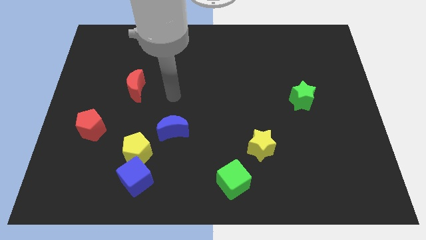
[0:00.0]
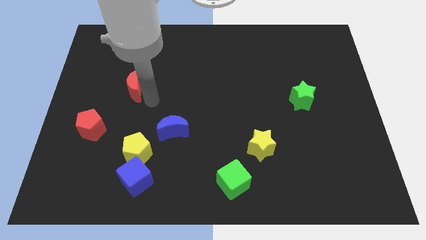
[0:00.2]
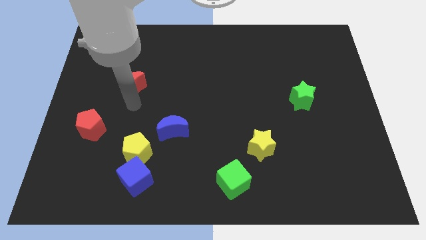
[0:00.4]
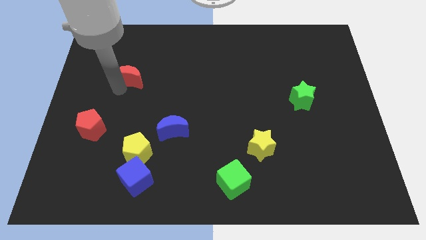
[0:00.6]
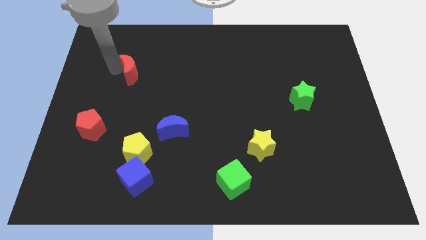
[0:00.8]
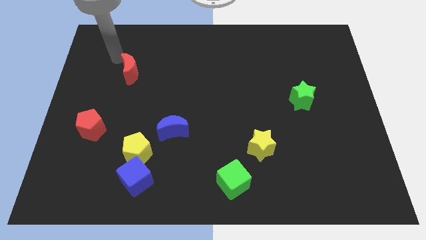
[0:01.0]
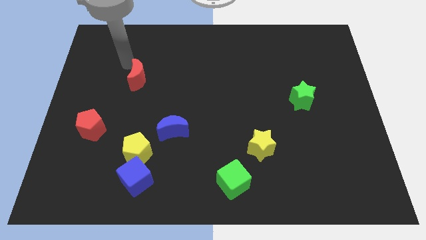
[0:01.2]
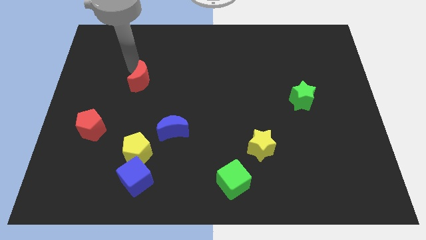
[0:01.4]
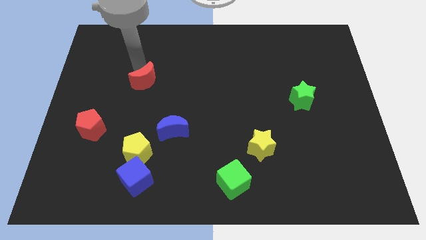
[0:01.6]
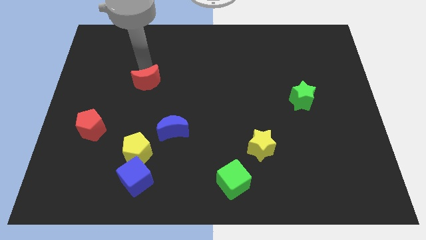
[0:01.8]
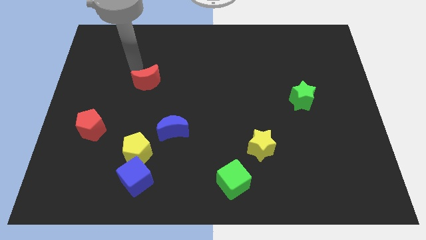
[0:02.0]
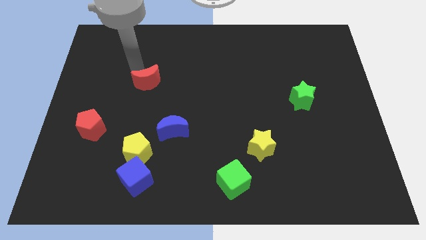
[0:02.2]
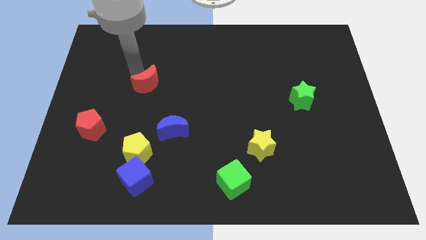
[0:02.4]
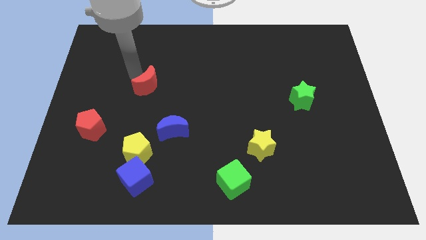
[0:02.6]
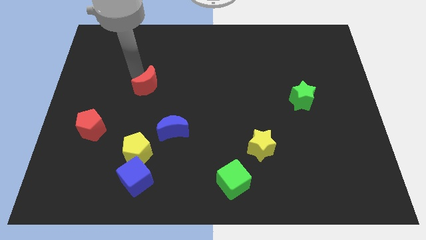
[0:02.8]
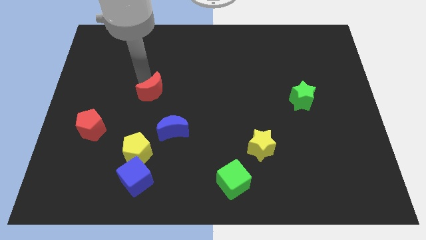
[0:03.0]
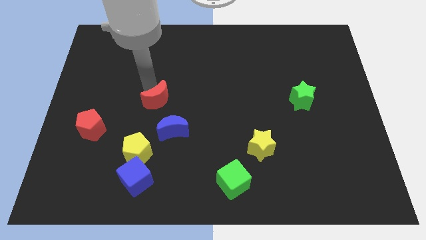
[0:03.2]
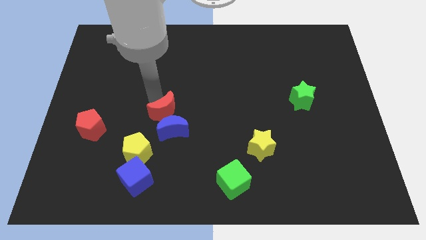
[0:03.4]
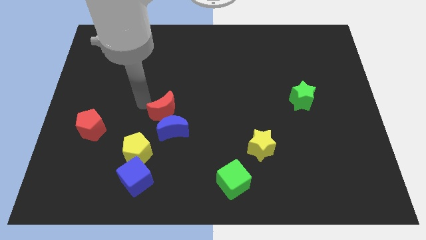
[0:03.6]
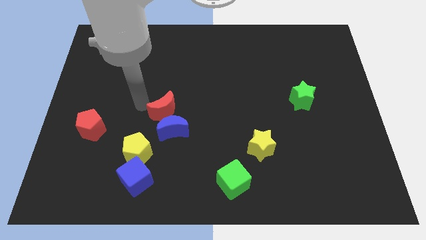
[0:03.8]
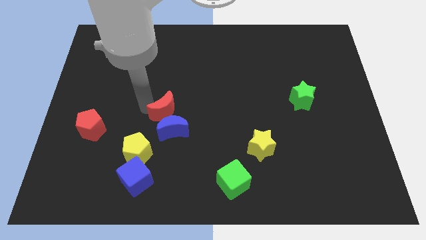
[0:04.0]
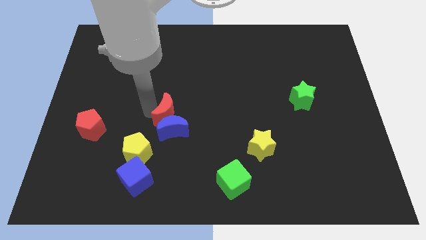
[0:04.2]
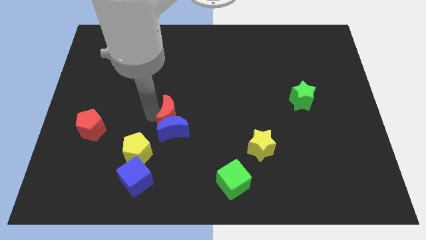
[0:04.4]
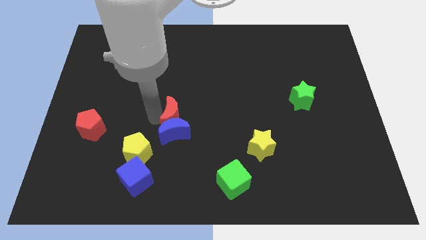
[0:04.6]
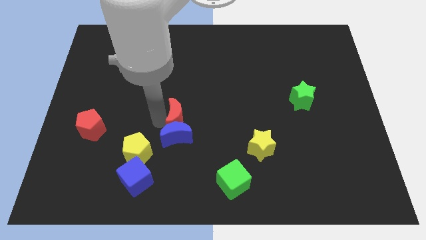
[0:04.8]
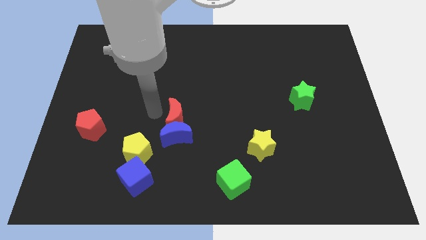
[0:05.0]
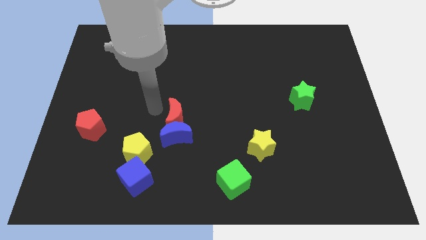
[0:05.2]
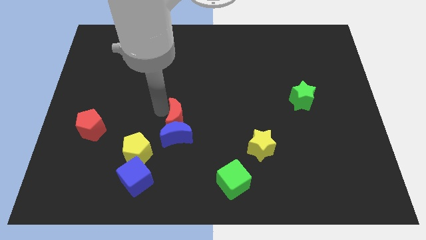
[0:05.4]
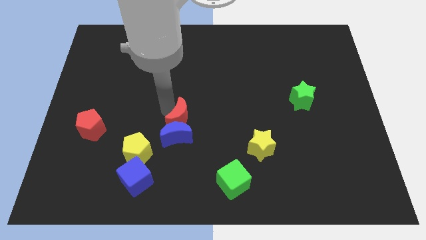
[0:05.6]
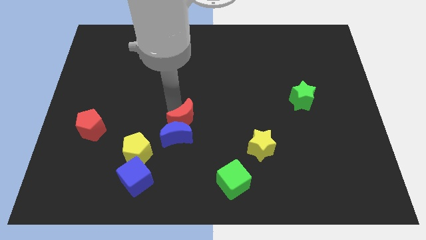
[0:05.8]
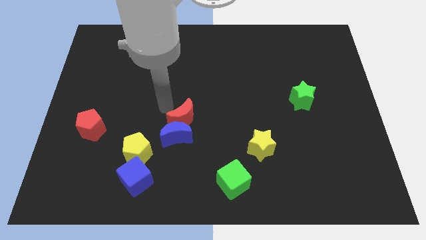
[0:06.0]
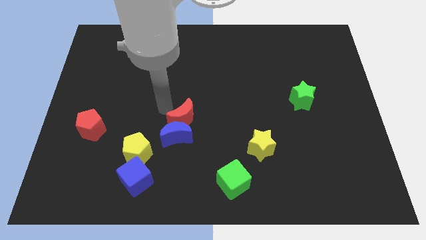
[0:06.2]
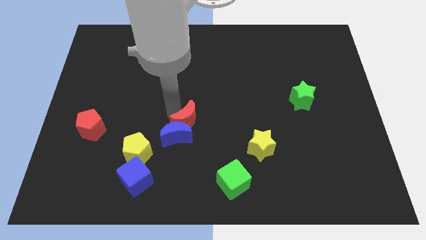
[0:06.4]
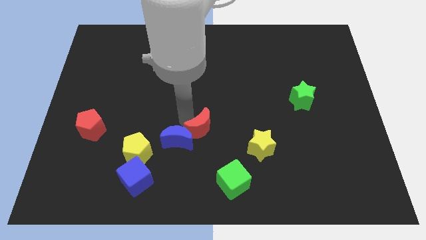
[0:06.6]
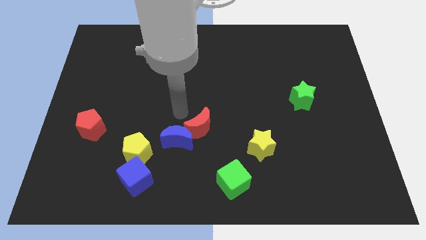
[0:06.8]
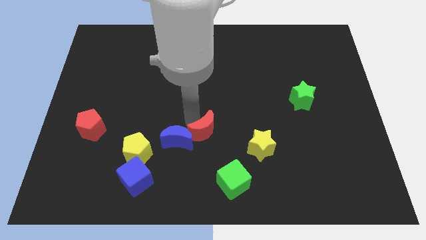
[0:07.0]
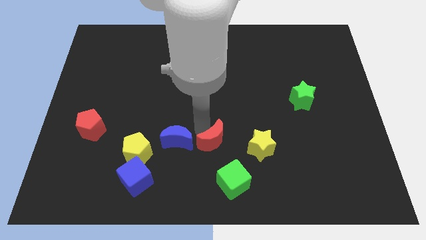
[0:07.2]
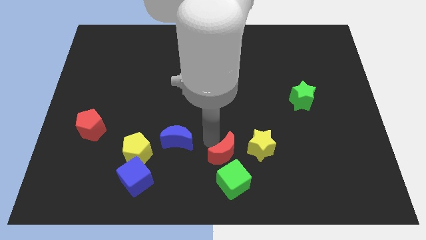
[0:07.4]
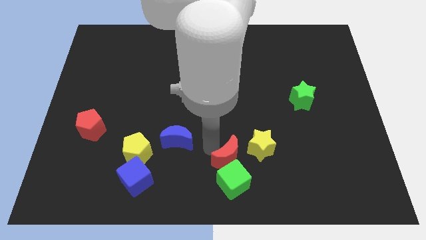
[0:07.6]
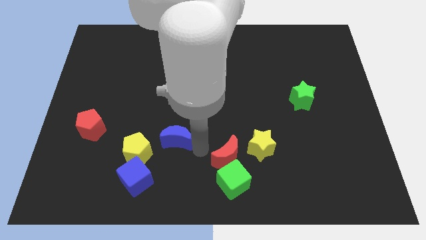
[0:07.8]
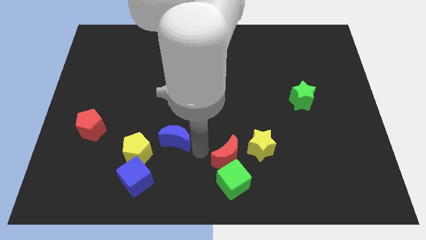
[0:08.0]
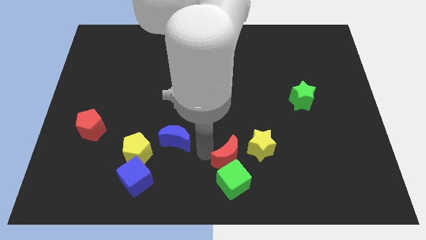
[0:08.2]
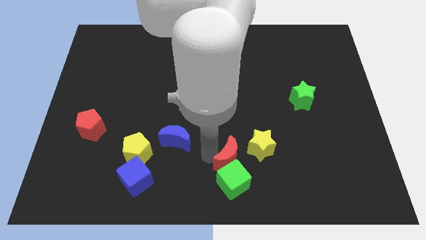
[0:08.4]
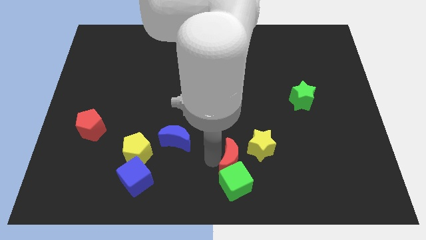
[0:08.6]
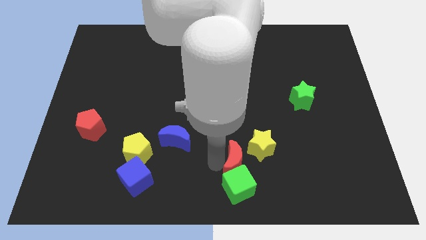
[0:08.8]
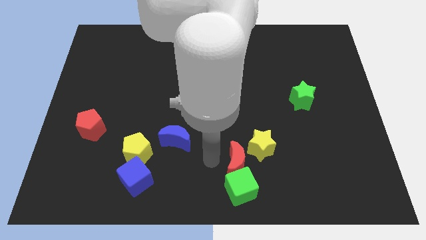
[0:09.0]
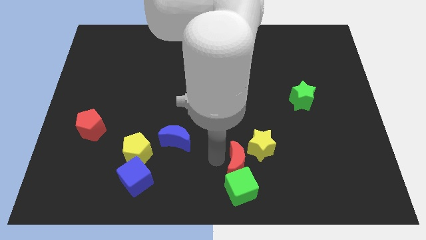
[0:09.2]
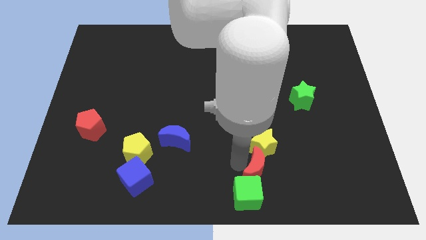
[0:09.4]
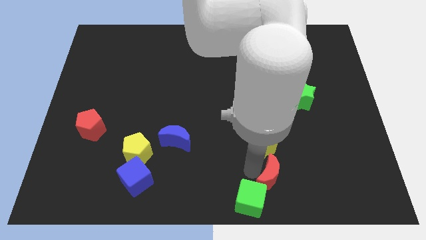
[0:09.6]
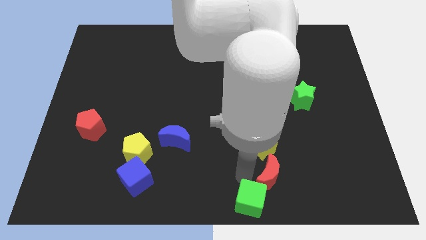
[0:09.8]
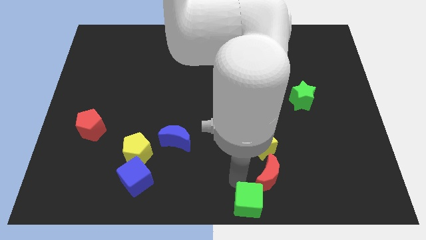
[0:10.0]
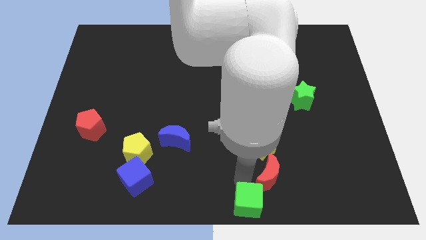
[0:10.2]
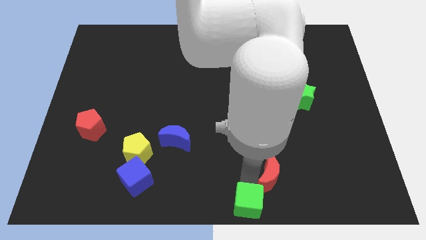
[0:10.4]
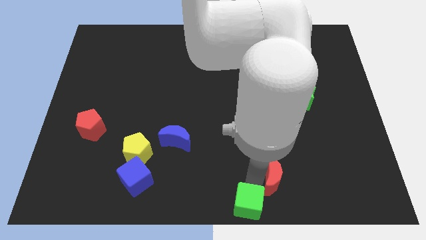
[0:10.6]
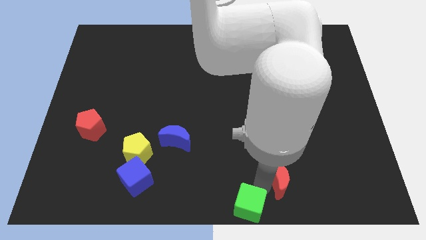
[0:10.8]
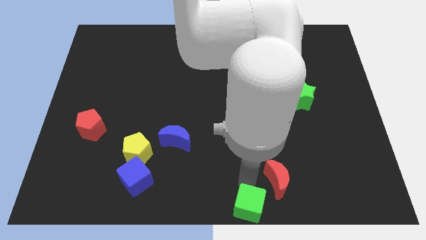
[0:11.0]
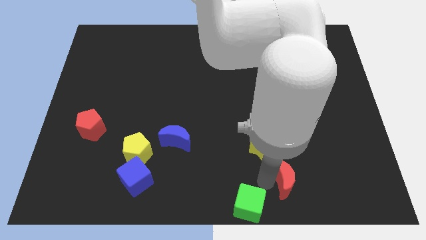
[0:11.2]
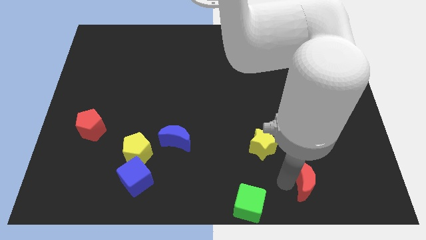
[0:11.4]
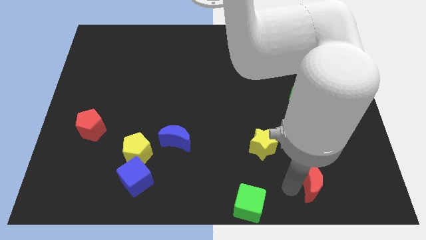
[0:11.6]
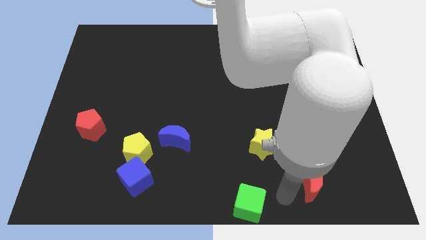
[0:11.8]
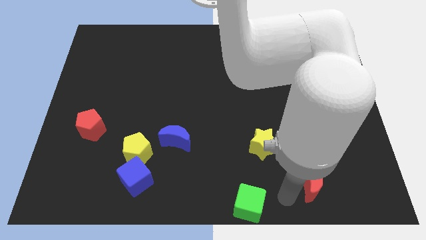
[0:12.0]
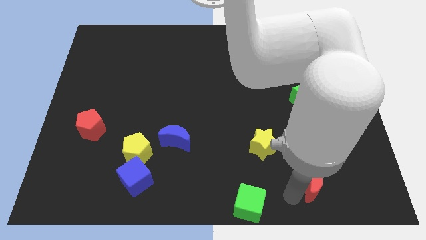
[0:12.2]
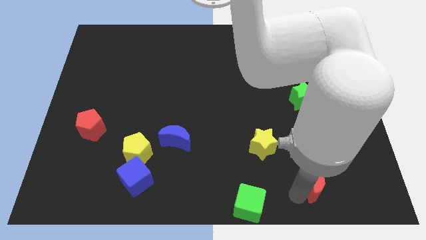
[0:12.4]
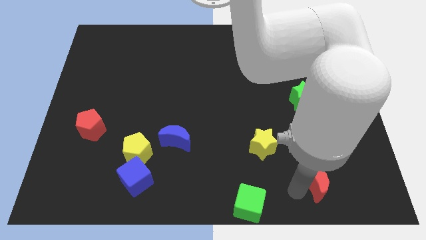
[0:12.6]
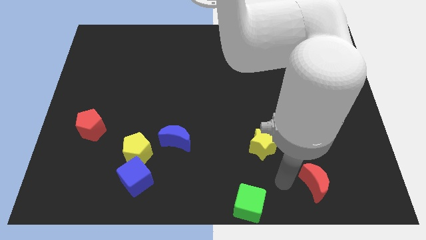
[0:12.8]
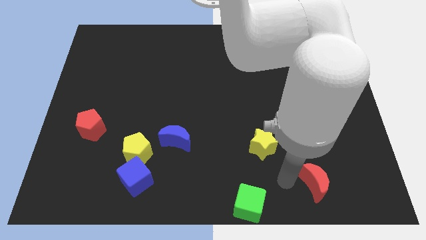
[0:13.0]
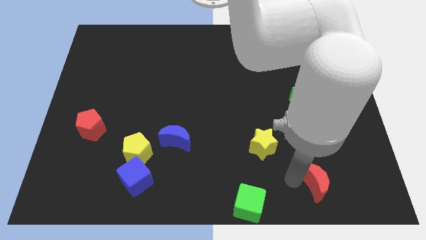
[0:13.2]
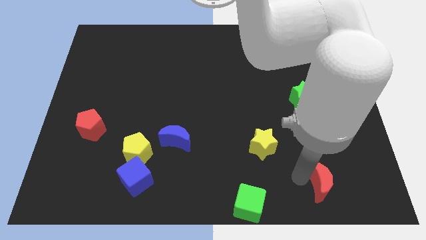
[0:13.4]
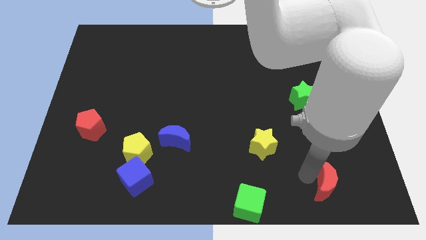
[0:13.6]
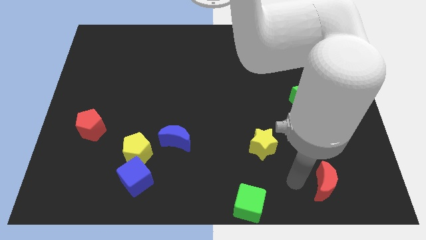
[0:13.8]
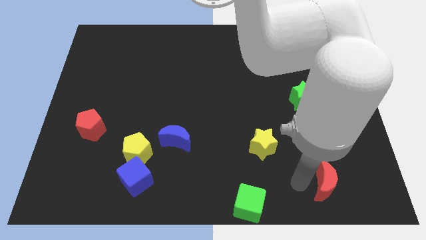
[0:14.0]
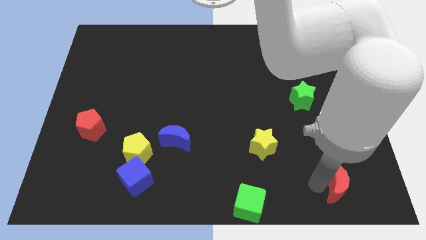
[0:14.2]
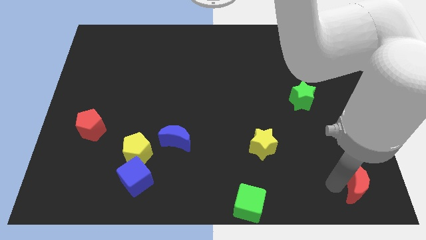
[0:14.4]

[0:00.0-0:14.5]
push the red moon to the bottom right of the board
